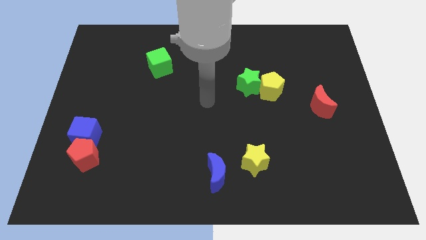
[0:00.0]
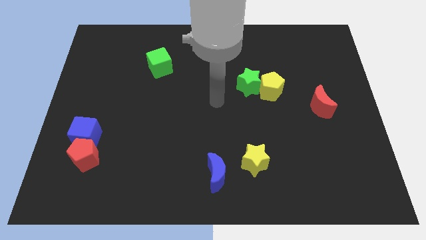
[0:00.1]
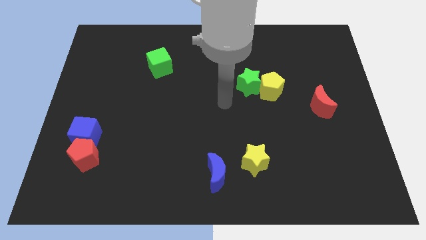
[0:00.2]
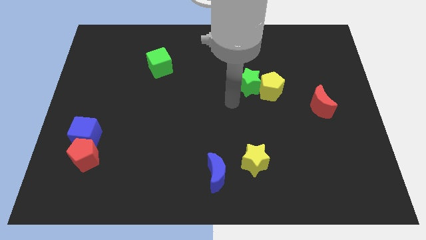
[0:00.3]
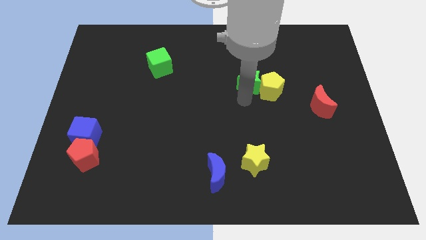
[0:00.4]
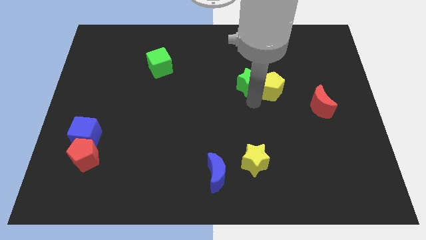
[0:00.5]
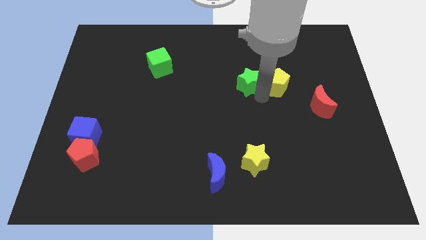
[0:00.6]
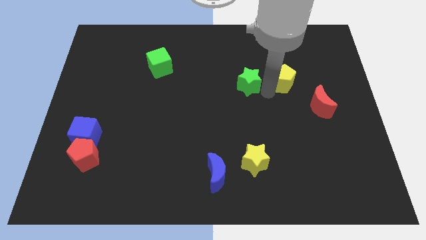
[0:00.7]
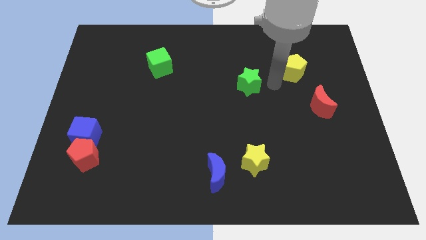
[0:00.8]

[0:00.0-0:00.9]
move the green star away from the yellow pentagon

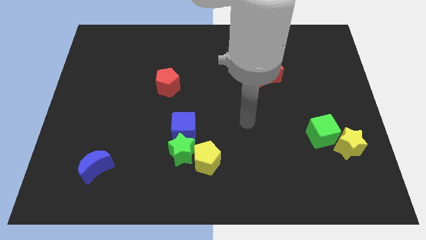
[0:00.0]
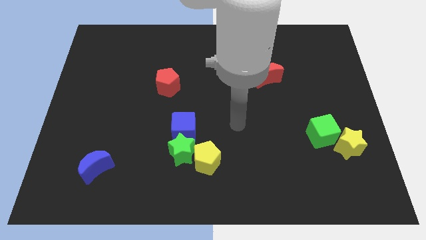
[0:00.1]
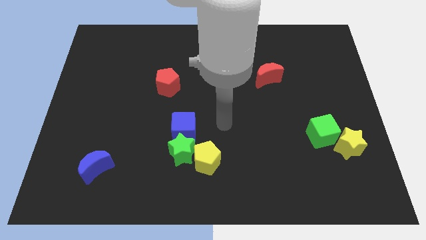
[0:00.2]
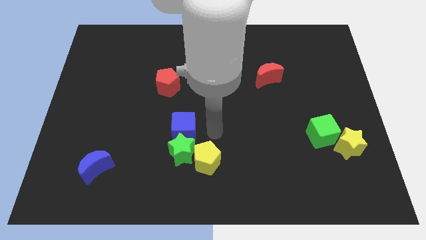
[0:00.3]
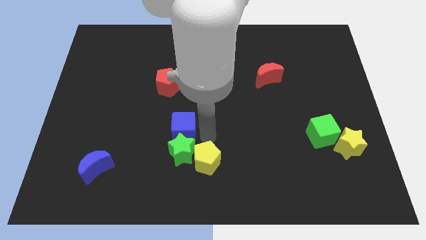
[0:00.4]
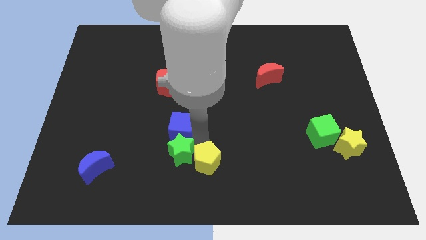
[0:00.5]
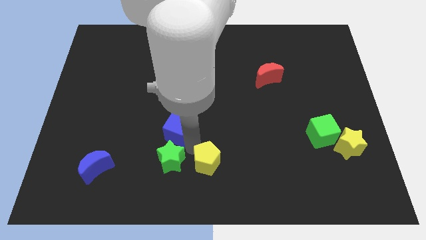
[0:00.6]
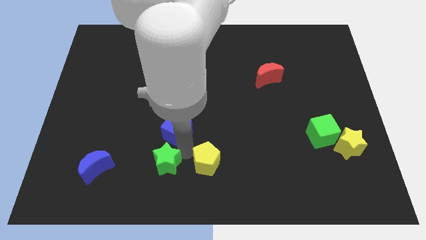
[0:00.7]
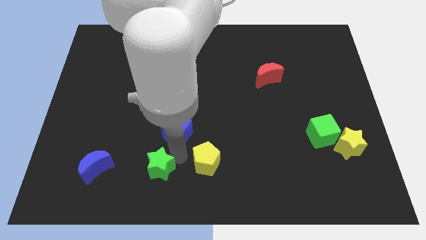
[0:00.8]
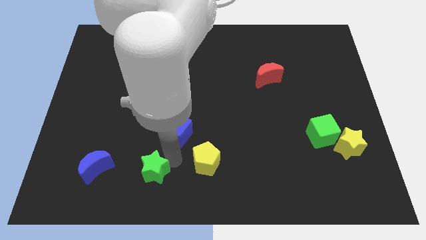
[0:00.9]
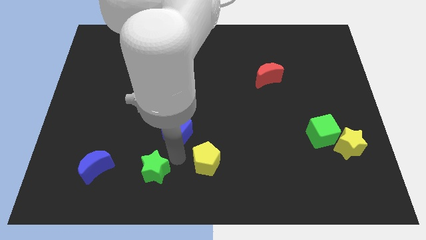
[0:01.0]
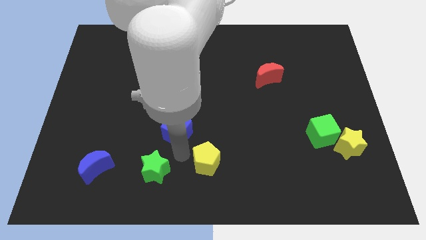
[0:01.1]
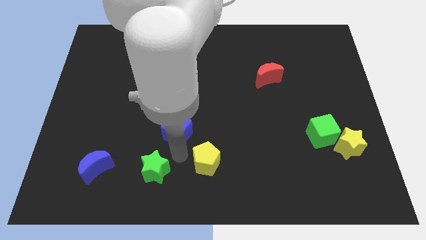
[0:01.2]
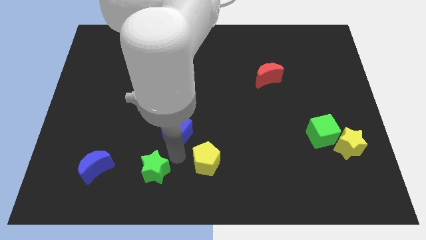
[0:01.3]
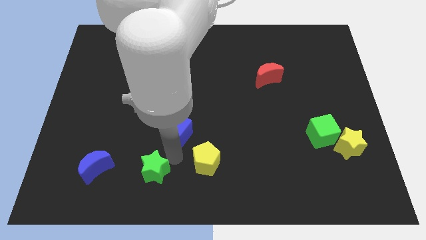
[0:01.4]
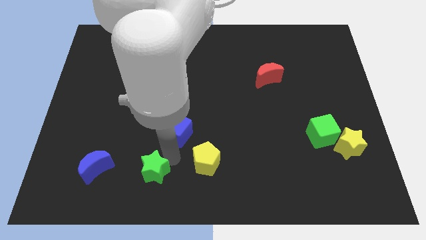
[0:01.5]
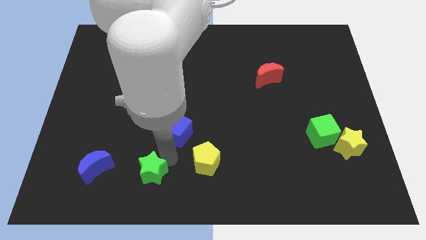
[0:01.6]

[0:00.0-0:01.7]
move the green star away from the yellow pentagon and blue cube

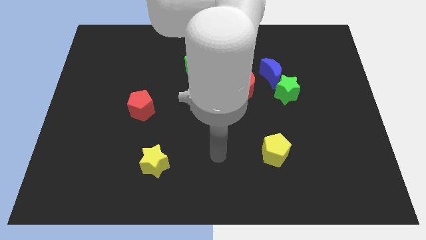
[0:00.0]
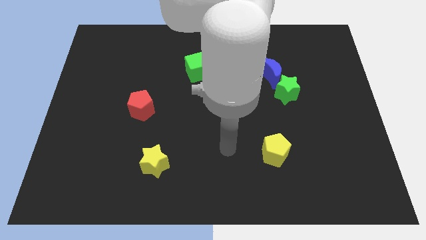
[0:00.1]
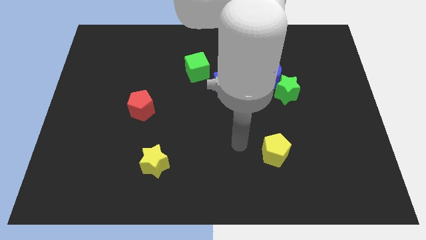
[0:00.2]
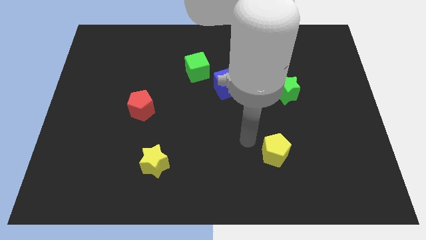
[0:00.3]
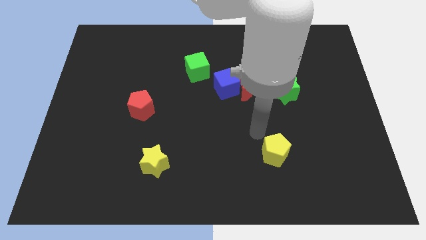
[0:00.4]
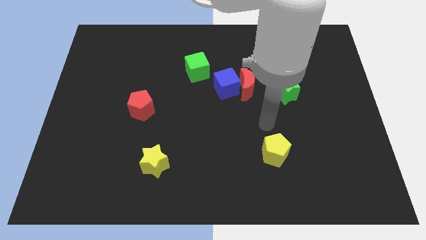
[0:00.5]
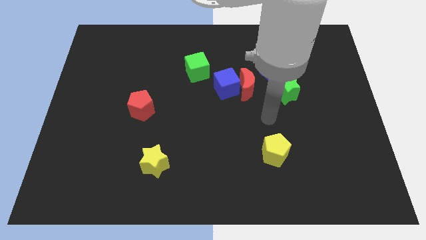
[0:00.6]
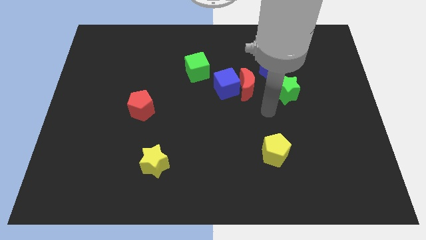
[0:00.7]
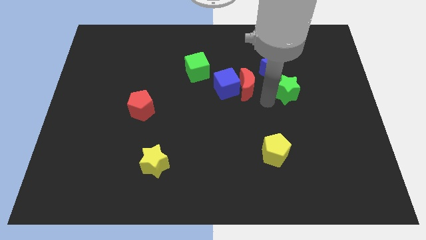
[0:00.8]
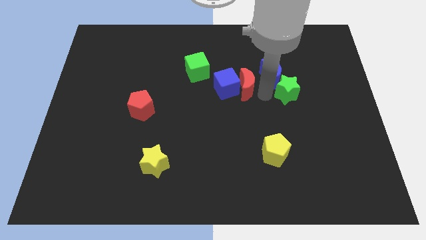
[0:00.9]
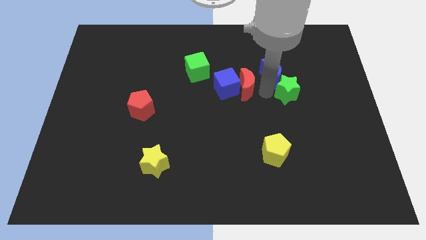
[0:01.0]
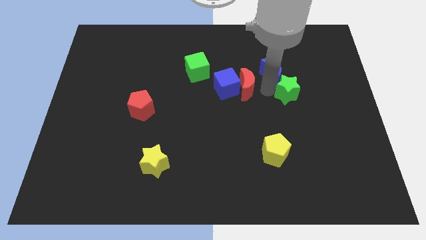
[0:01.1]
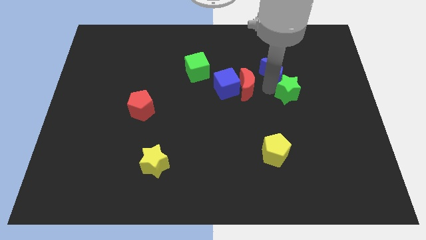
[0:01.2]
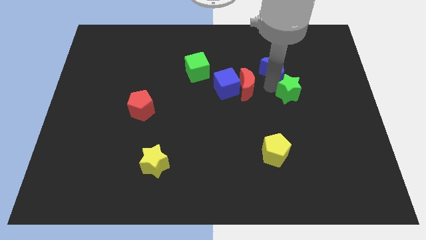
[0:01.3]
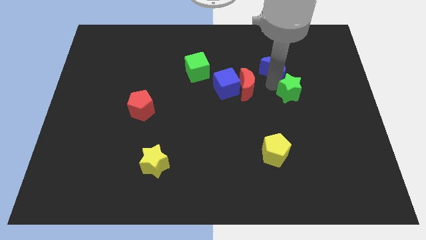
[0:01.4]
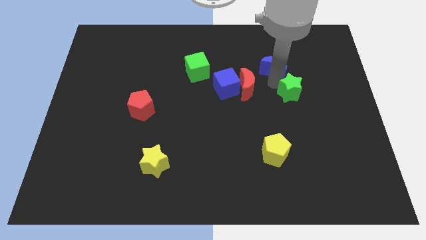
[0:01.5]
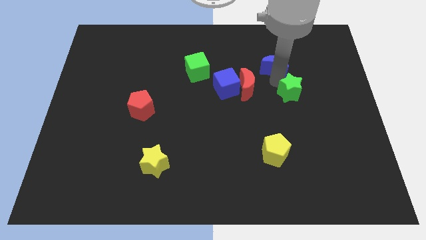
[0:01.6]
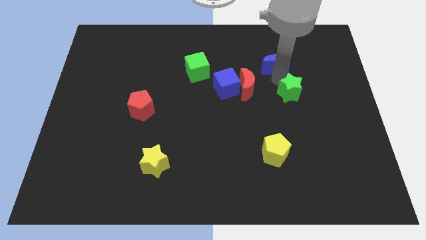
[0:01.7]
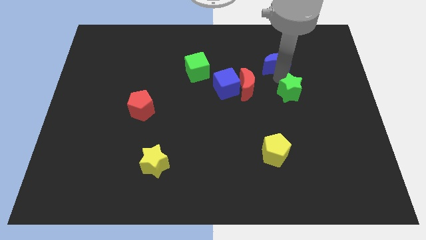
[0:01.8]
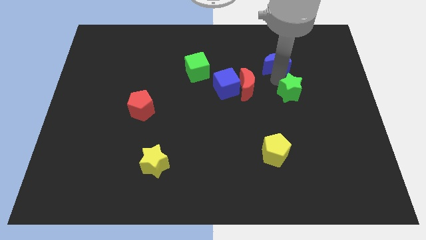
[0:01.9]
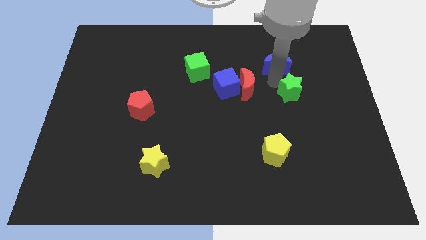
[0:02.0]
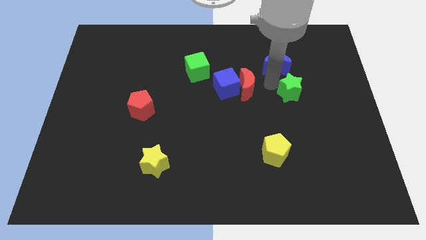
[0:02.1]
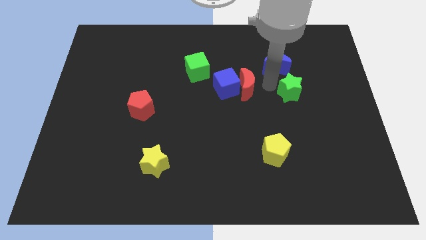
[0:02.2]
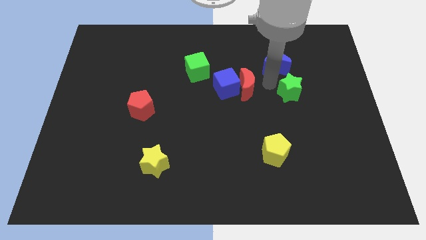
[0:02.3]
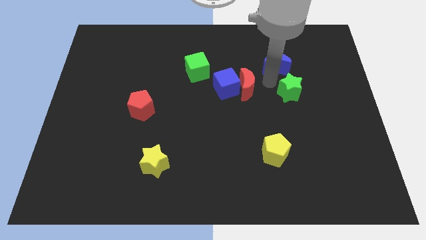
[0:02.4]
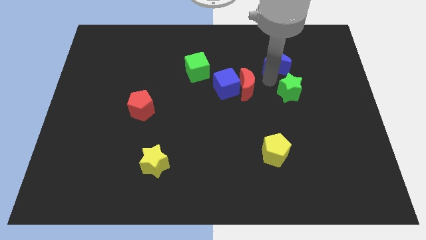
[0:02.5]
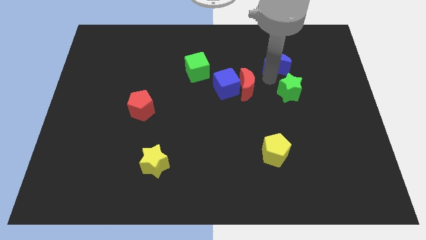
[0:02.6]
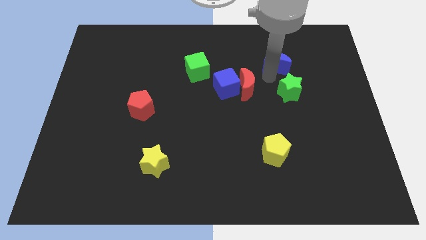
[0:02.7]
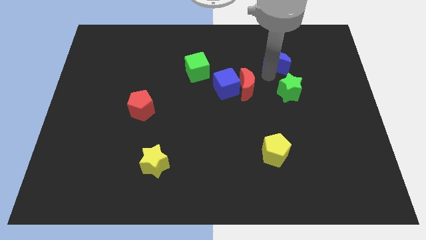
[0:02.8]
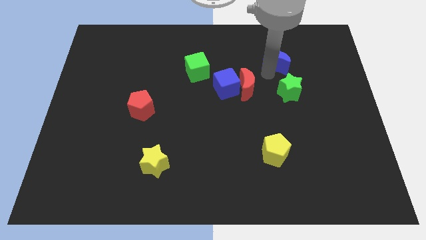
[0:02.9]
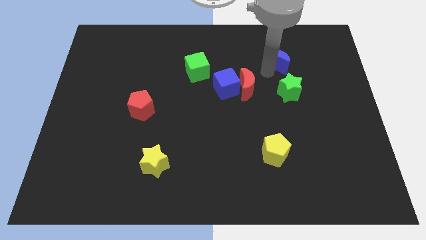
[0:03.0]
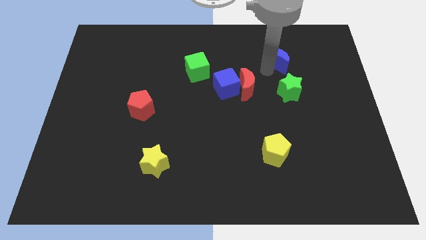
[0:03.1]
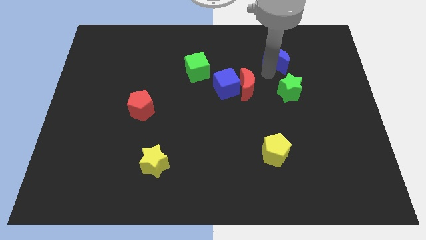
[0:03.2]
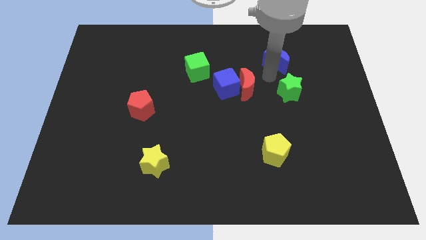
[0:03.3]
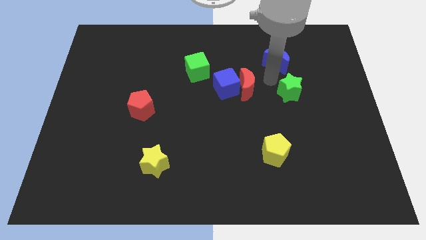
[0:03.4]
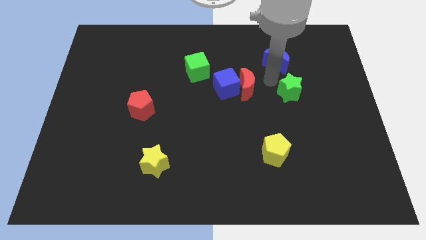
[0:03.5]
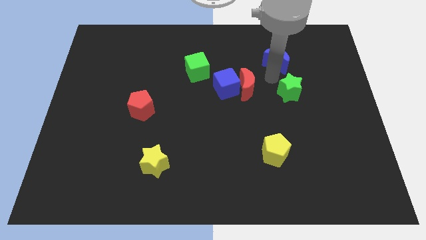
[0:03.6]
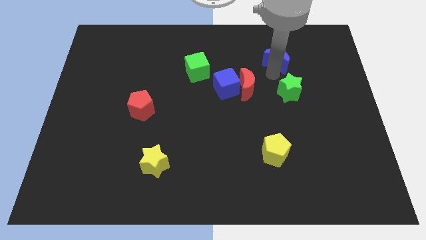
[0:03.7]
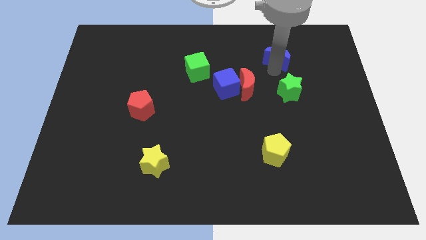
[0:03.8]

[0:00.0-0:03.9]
pull the blue moon apart from the green star and red moon

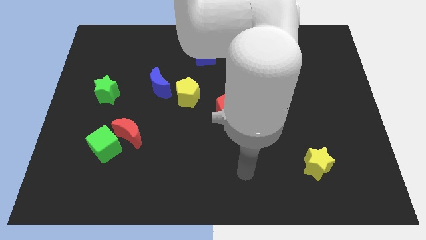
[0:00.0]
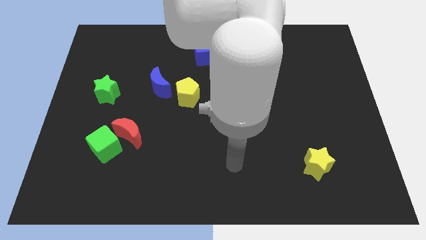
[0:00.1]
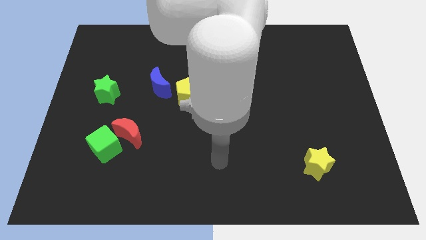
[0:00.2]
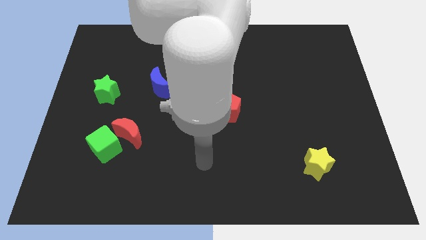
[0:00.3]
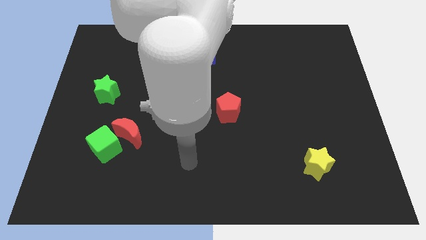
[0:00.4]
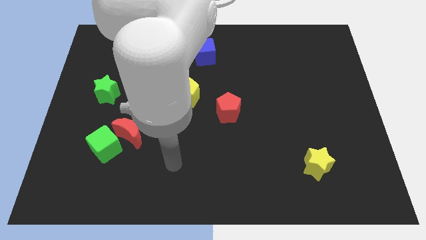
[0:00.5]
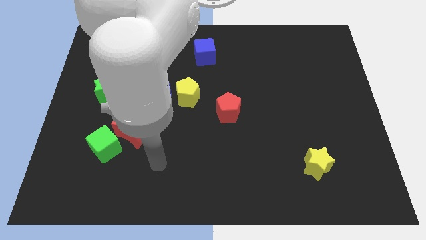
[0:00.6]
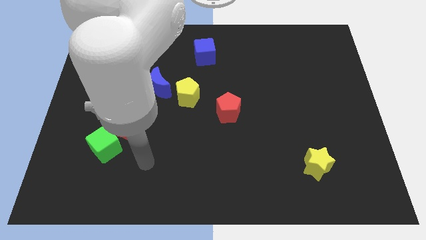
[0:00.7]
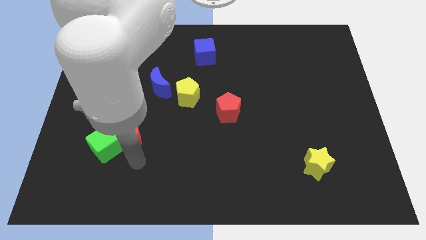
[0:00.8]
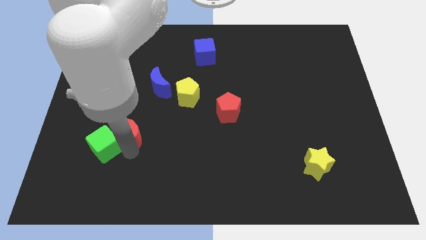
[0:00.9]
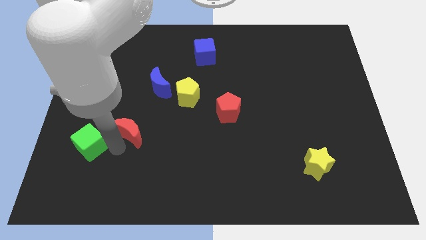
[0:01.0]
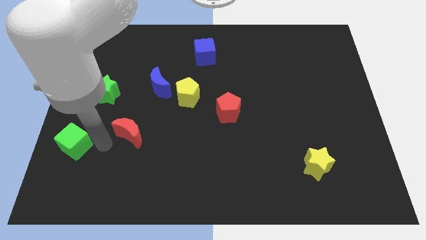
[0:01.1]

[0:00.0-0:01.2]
pull the red moon apart from the green cube

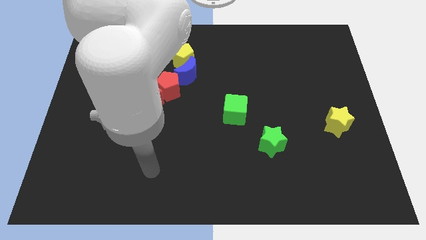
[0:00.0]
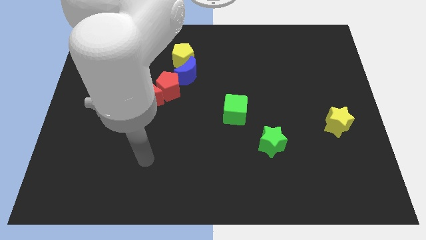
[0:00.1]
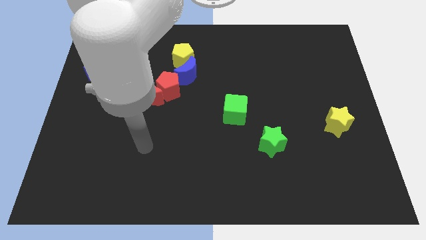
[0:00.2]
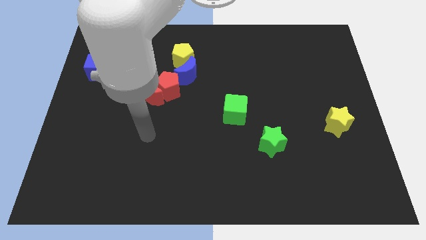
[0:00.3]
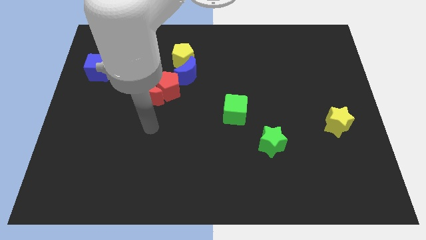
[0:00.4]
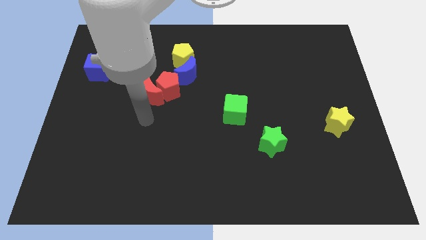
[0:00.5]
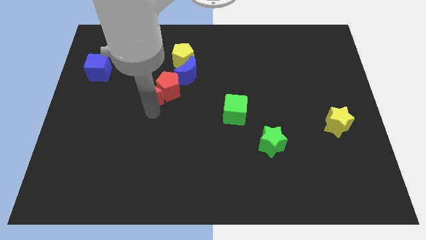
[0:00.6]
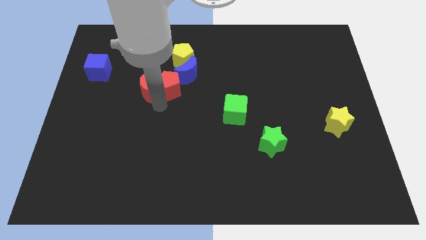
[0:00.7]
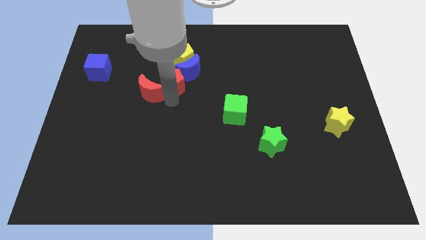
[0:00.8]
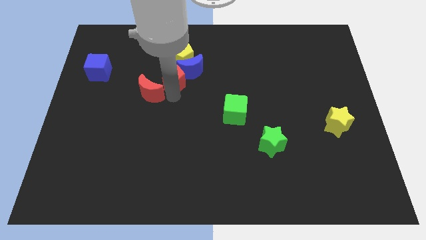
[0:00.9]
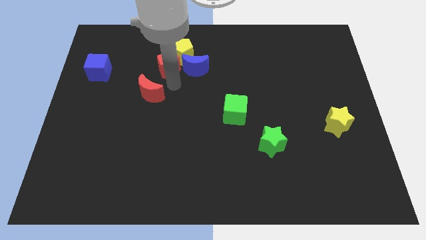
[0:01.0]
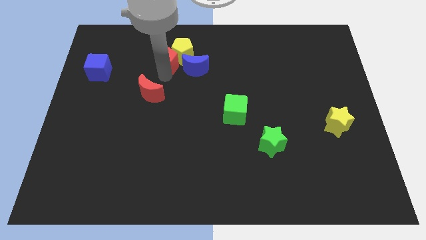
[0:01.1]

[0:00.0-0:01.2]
pull the red moon apart from the red pentagon

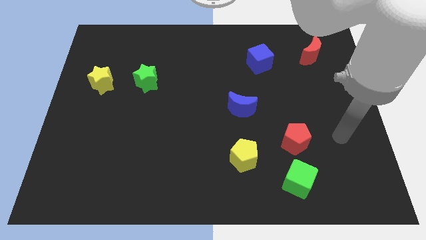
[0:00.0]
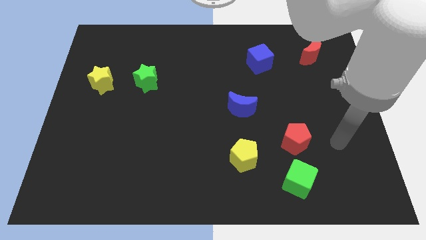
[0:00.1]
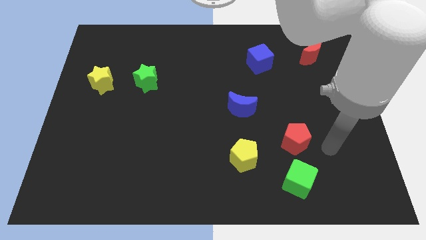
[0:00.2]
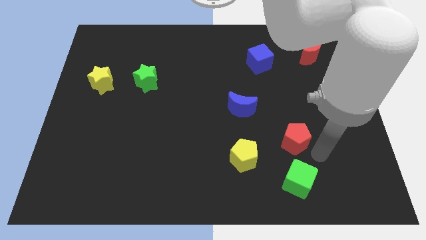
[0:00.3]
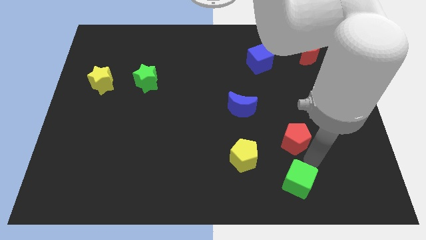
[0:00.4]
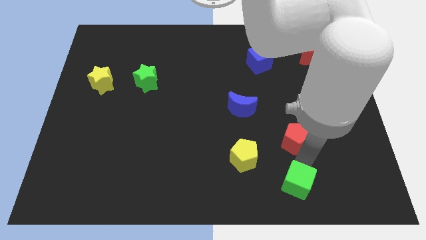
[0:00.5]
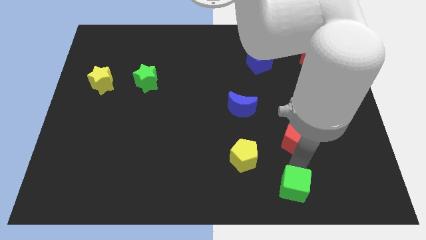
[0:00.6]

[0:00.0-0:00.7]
pull the red pentagon apart from the green cube
